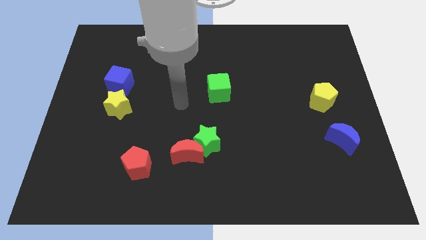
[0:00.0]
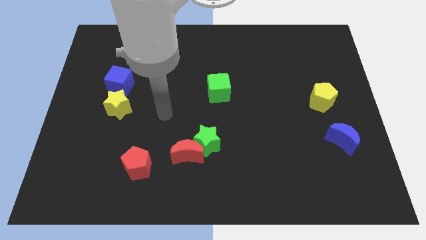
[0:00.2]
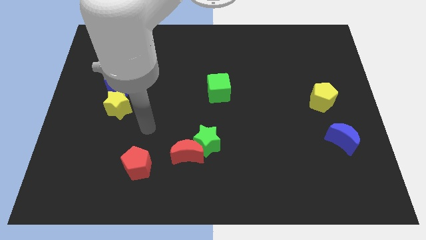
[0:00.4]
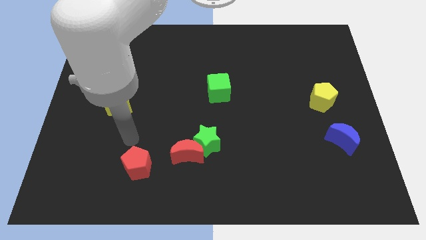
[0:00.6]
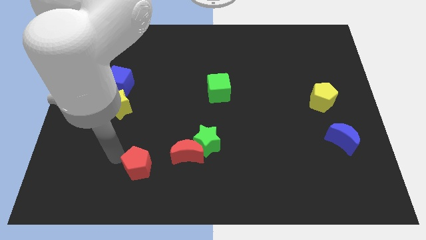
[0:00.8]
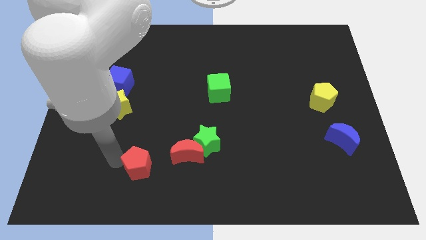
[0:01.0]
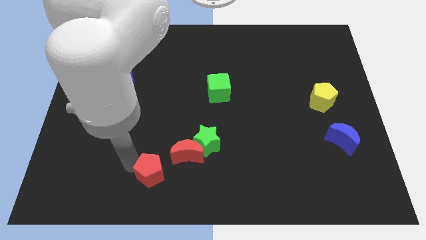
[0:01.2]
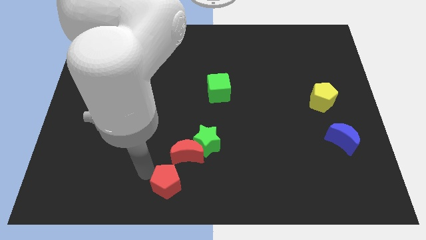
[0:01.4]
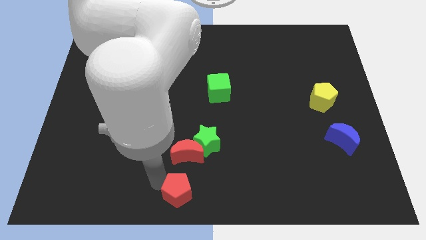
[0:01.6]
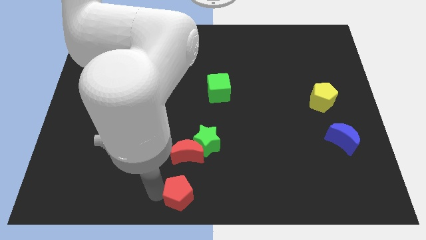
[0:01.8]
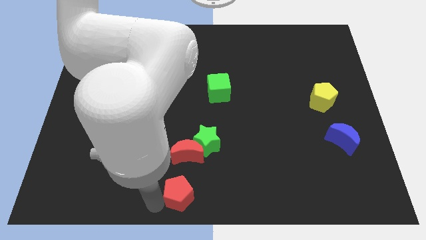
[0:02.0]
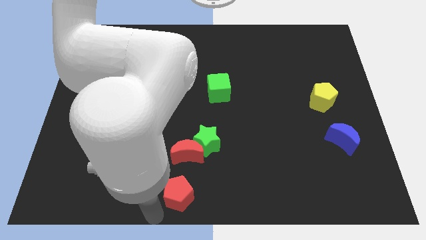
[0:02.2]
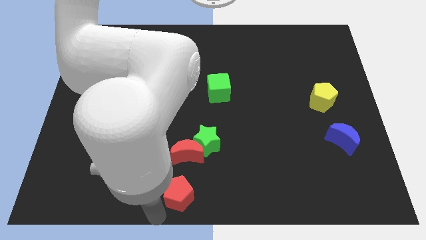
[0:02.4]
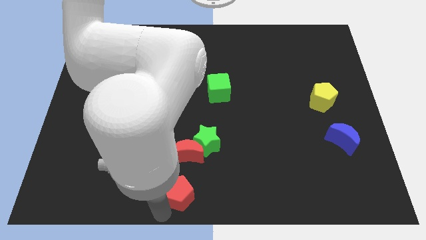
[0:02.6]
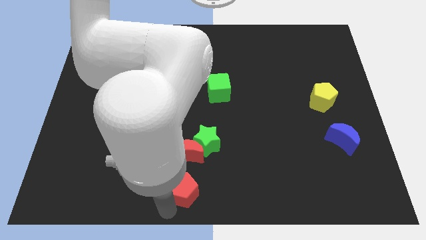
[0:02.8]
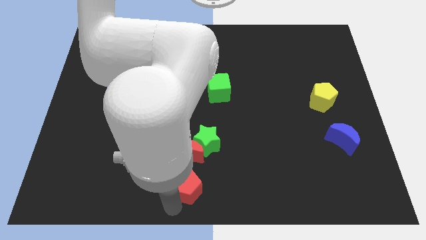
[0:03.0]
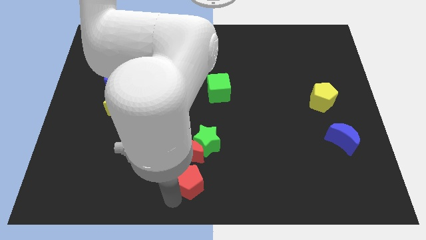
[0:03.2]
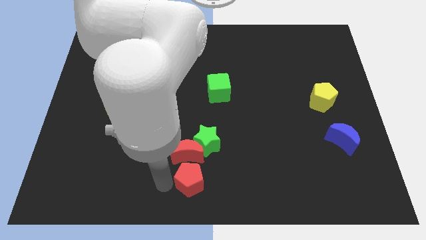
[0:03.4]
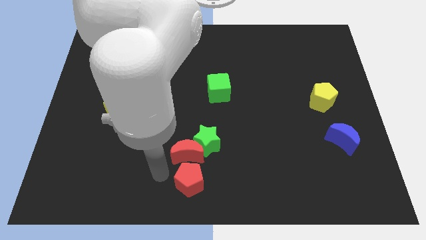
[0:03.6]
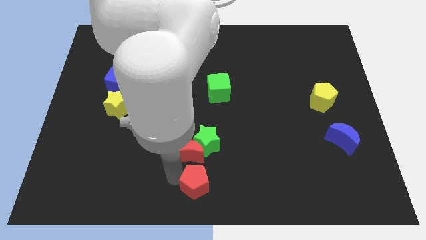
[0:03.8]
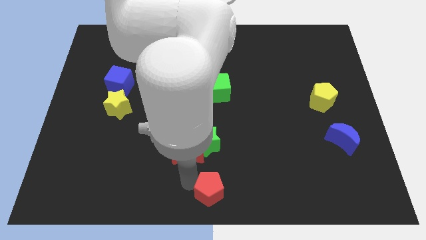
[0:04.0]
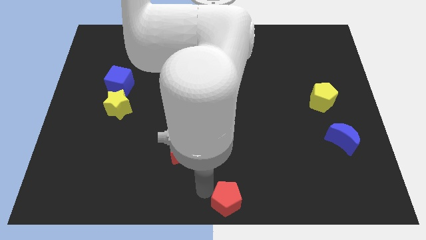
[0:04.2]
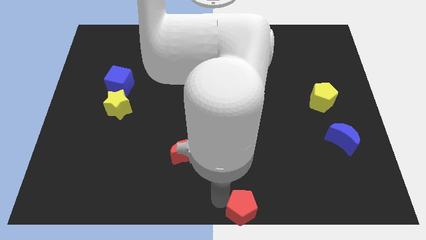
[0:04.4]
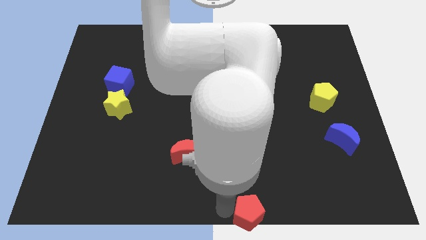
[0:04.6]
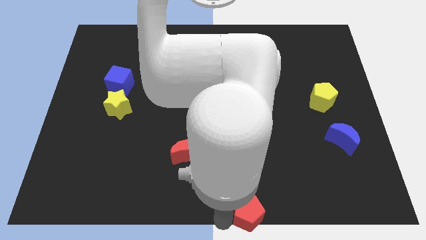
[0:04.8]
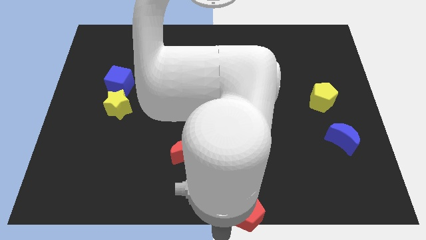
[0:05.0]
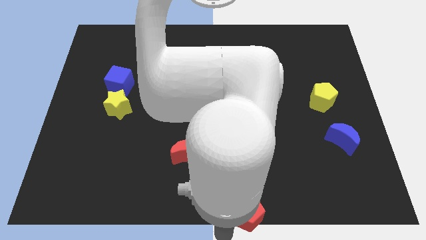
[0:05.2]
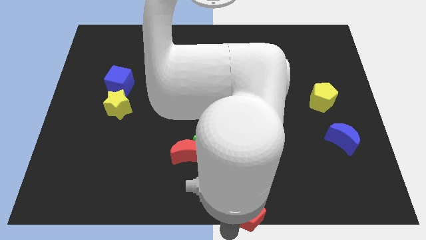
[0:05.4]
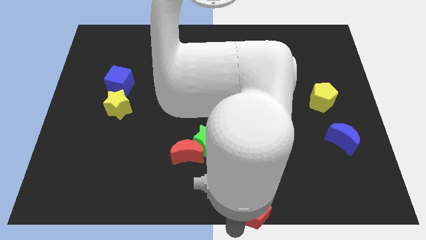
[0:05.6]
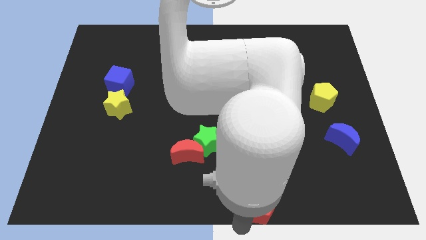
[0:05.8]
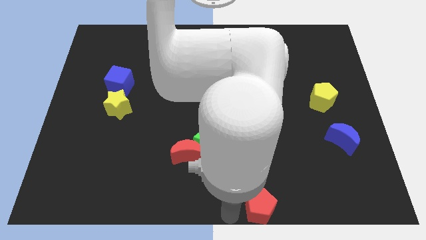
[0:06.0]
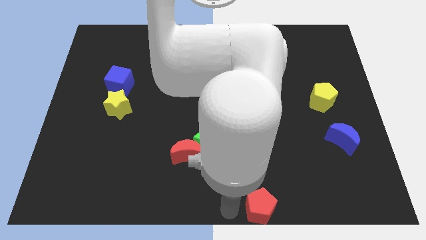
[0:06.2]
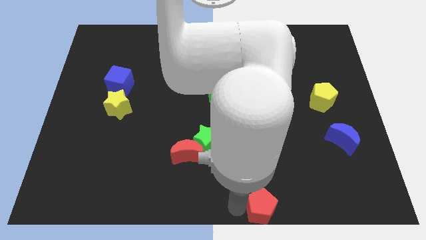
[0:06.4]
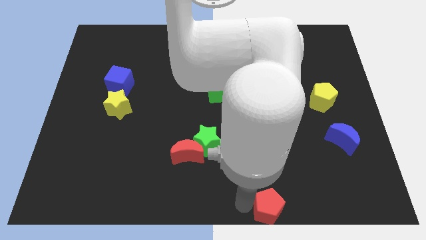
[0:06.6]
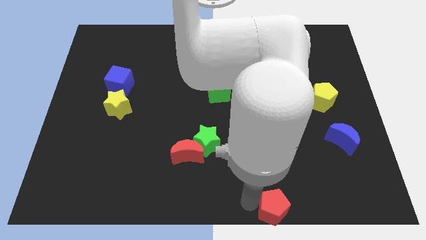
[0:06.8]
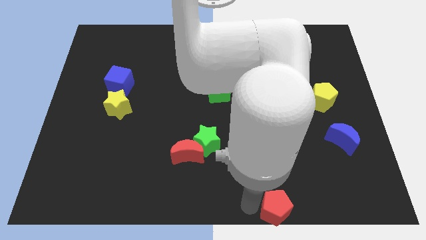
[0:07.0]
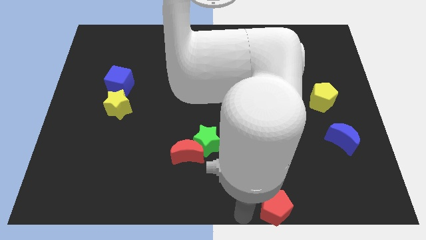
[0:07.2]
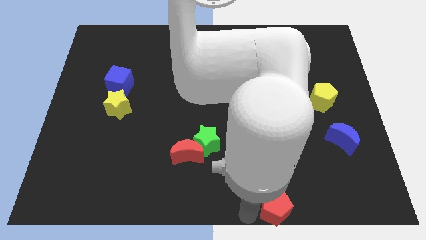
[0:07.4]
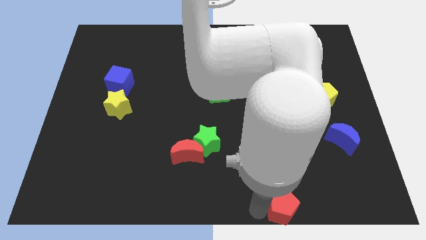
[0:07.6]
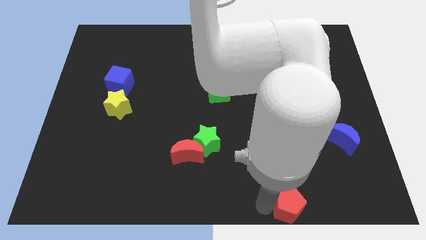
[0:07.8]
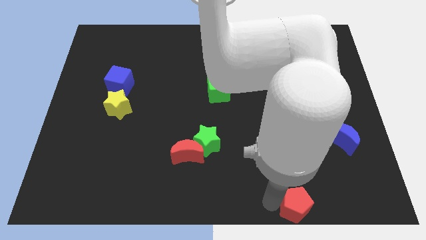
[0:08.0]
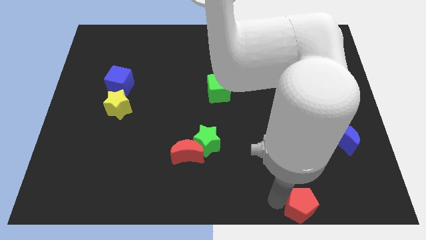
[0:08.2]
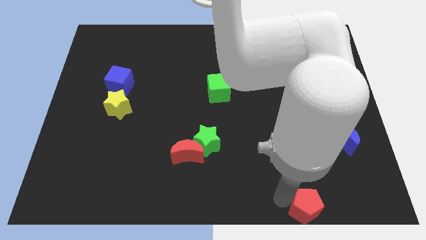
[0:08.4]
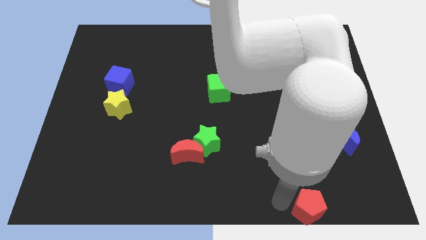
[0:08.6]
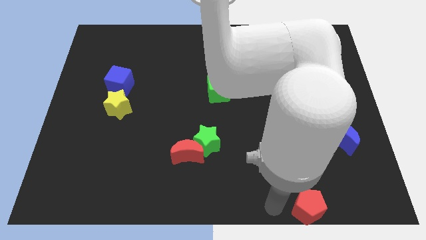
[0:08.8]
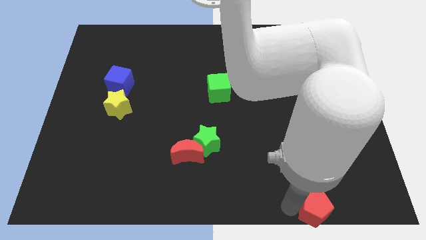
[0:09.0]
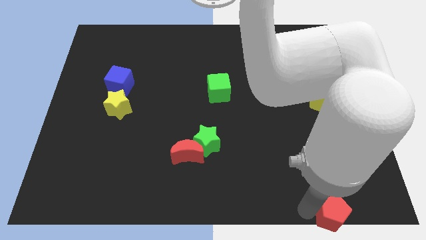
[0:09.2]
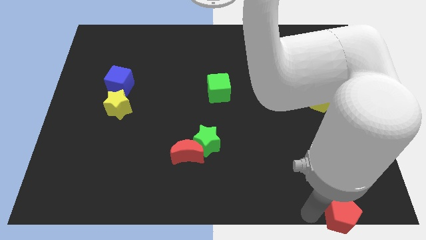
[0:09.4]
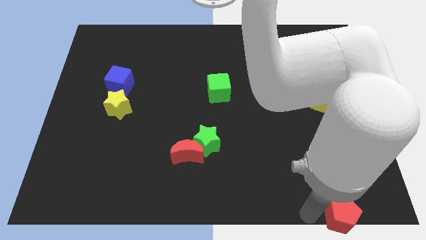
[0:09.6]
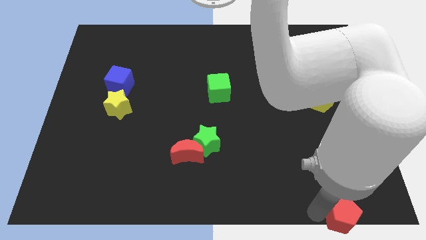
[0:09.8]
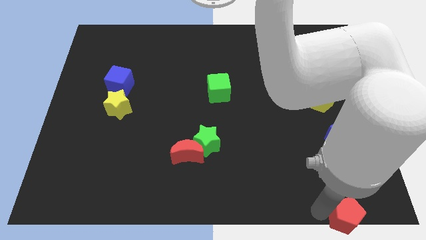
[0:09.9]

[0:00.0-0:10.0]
put the red pentagon to the bottom right of the board
